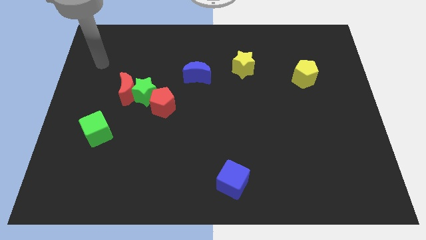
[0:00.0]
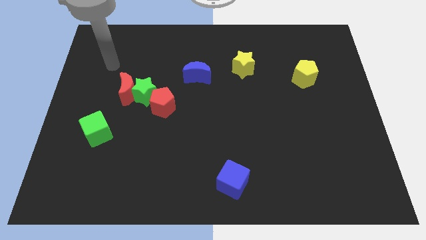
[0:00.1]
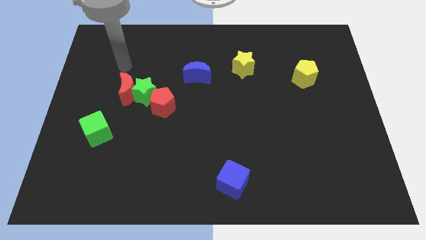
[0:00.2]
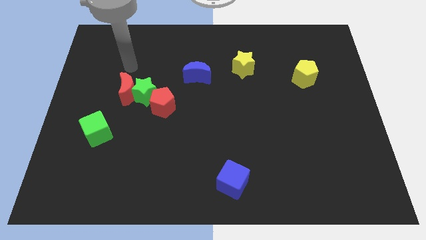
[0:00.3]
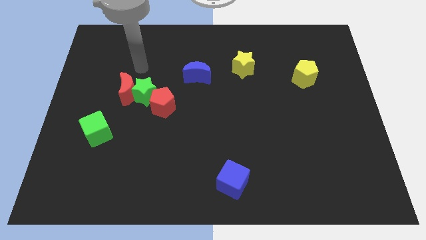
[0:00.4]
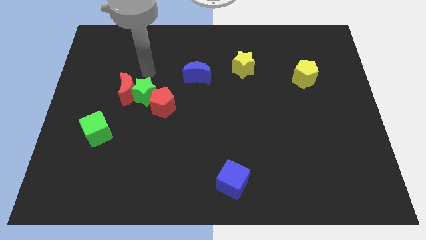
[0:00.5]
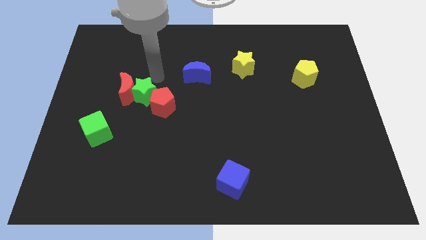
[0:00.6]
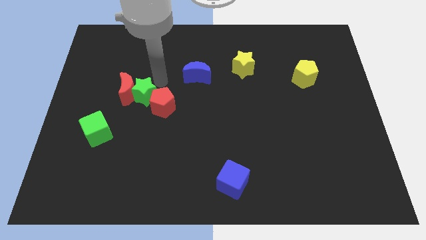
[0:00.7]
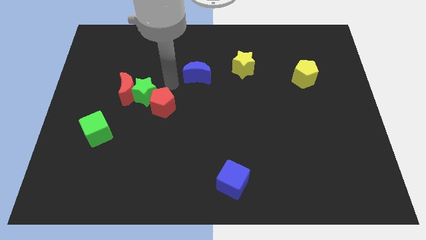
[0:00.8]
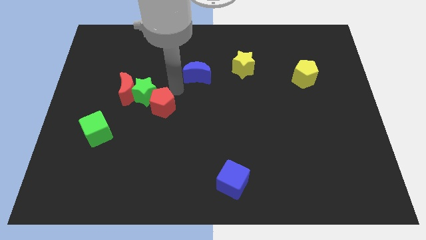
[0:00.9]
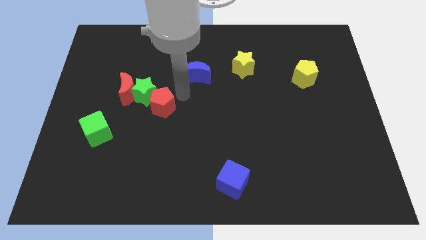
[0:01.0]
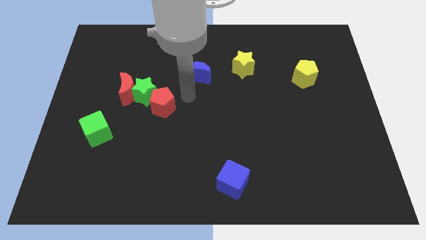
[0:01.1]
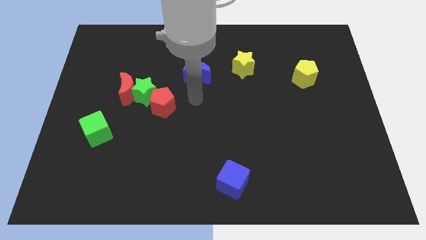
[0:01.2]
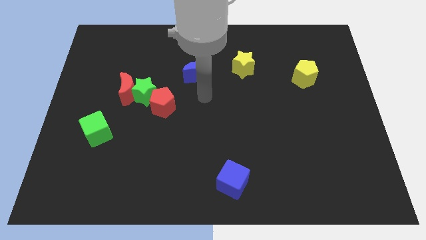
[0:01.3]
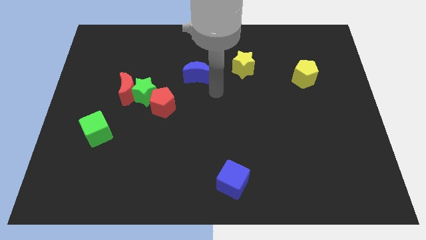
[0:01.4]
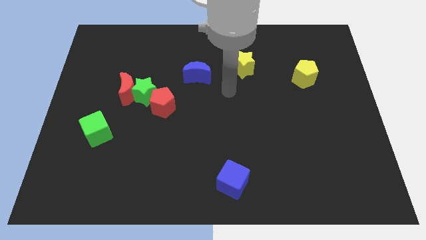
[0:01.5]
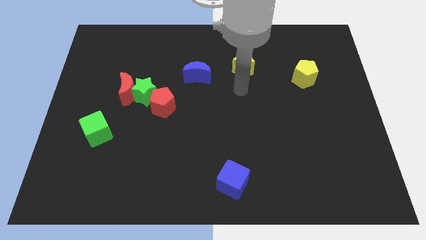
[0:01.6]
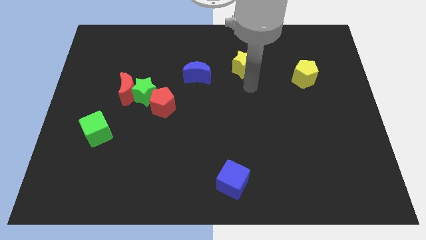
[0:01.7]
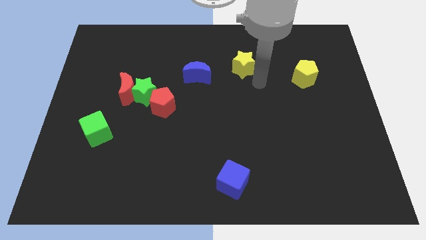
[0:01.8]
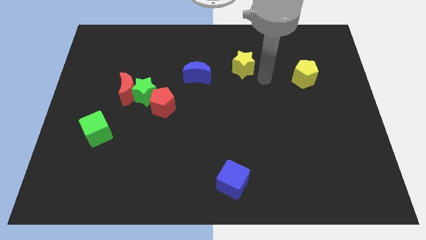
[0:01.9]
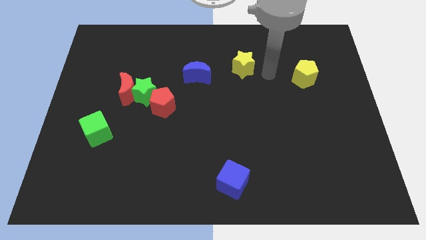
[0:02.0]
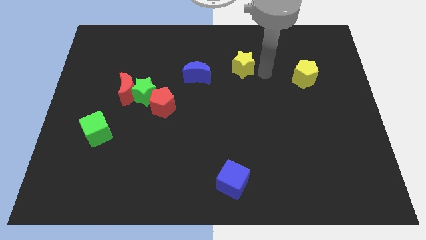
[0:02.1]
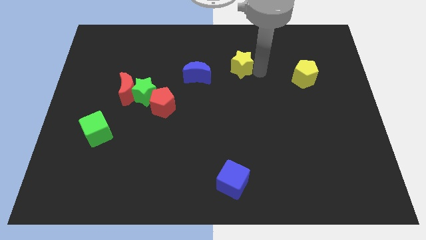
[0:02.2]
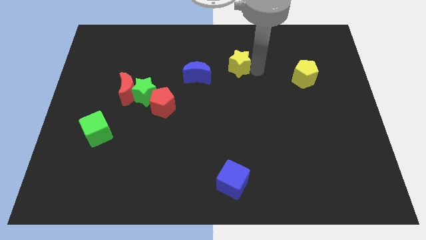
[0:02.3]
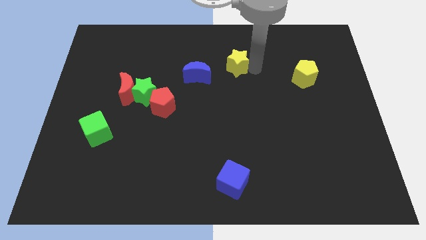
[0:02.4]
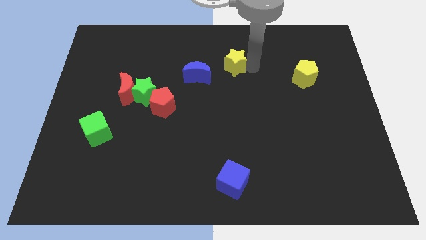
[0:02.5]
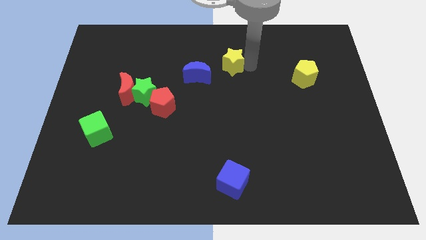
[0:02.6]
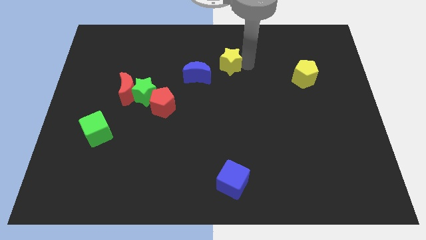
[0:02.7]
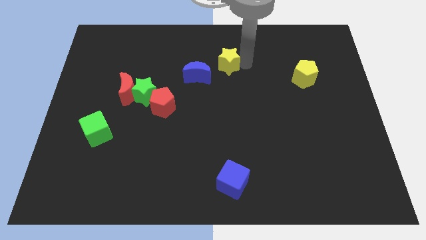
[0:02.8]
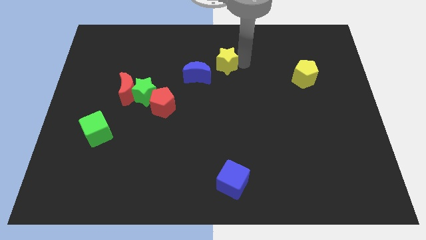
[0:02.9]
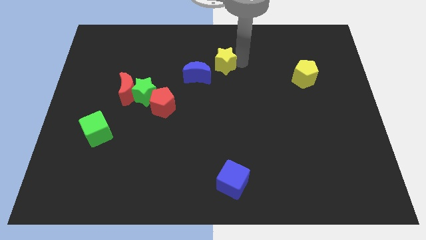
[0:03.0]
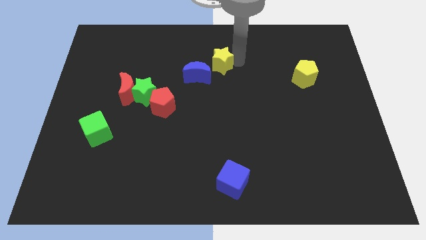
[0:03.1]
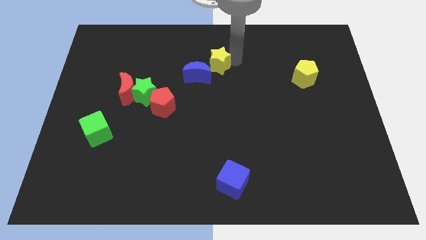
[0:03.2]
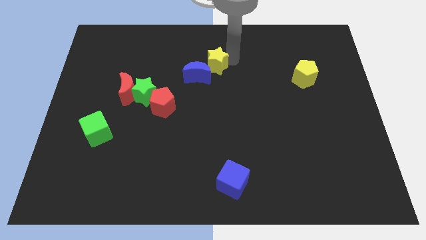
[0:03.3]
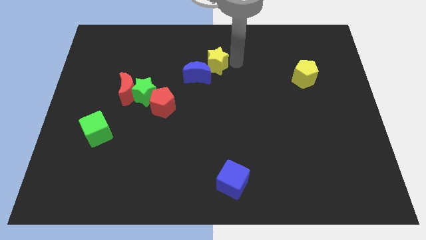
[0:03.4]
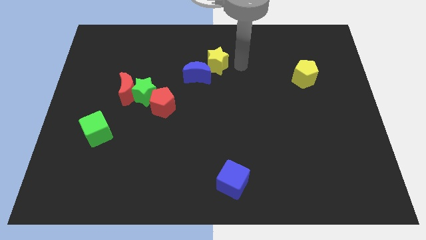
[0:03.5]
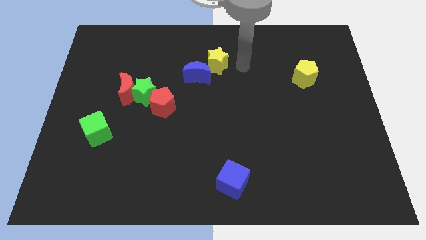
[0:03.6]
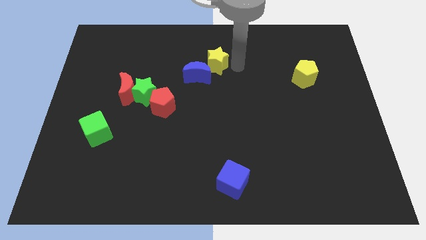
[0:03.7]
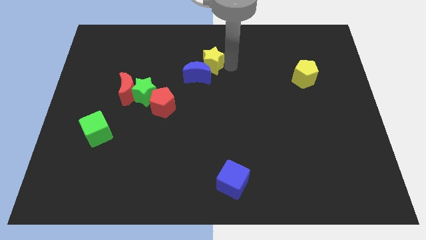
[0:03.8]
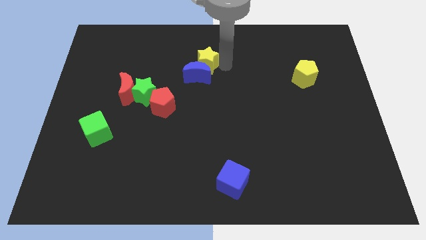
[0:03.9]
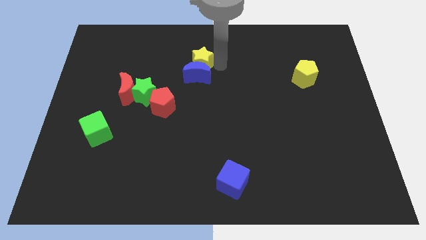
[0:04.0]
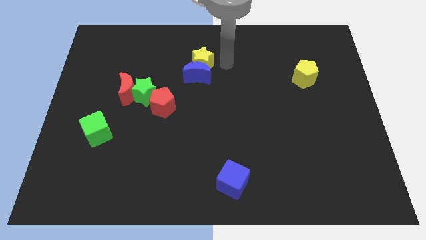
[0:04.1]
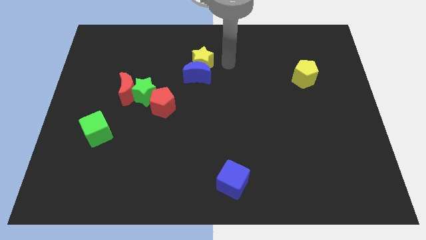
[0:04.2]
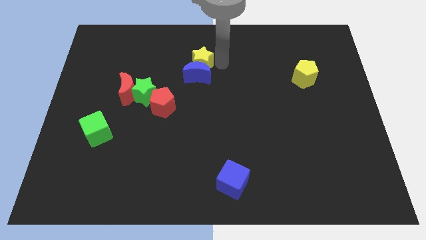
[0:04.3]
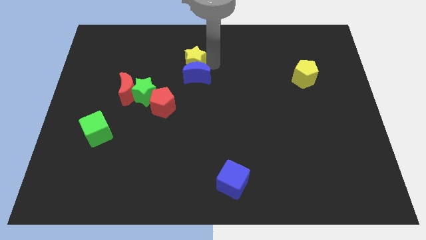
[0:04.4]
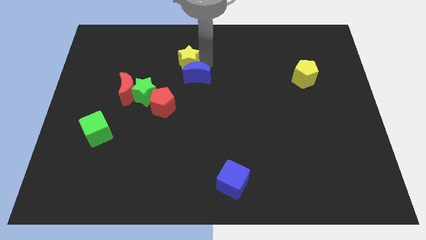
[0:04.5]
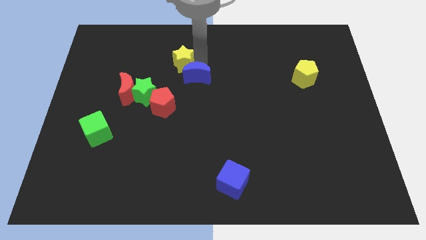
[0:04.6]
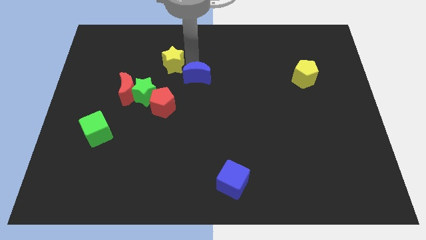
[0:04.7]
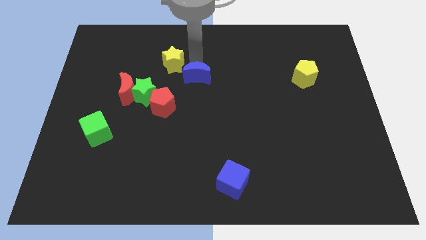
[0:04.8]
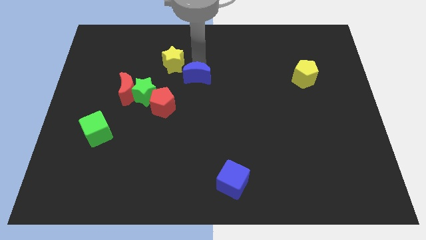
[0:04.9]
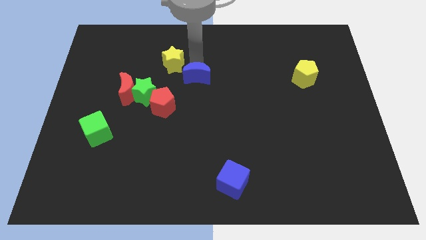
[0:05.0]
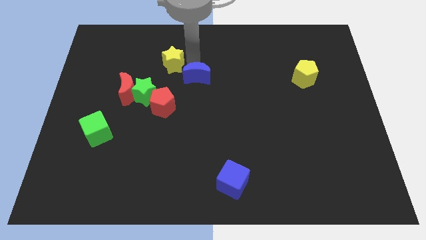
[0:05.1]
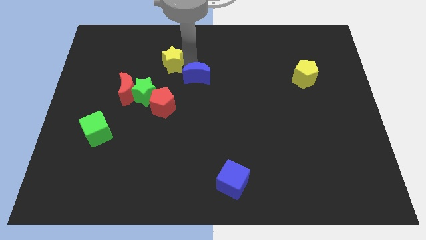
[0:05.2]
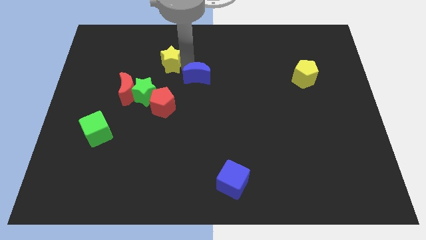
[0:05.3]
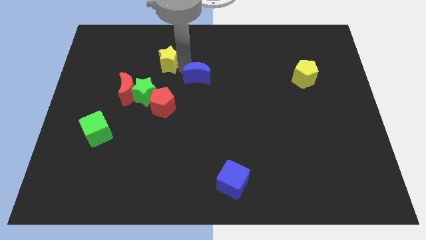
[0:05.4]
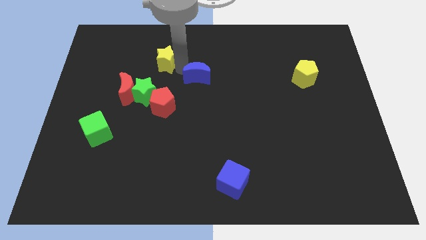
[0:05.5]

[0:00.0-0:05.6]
move the yellow star left

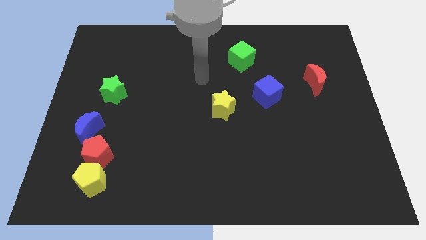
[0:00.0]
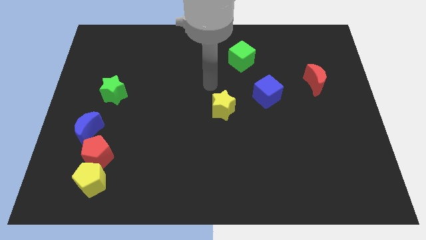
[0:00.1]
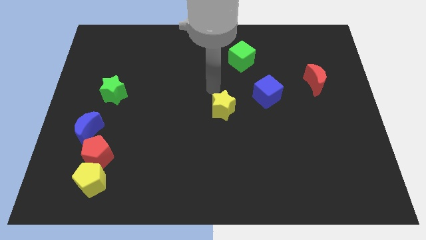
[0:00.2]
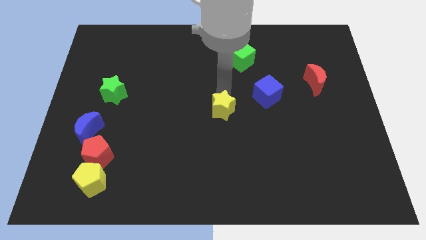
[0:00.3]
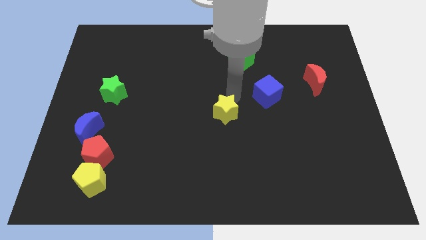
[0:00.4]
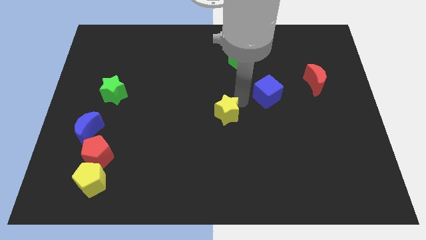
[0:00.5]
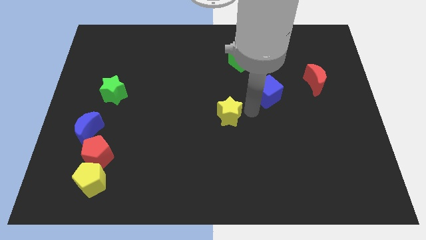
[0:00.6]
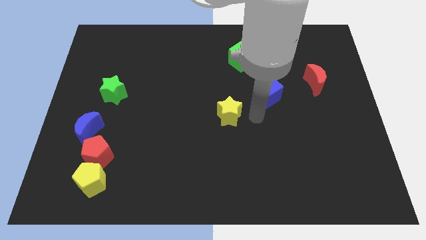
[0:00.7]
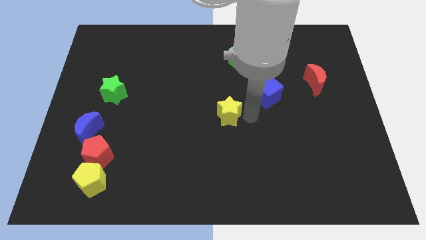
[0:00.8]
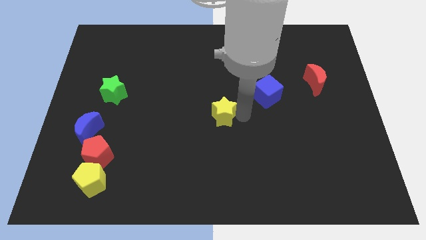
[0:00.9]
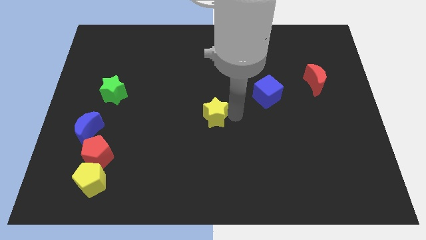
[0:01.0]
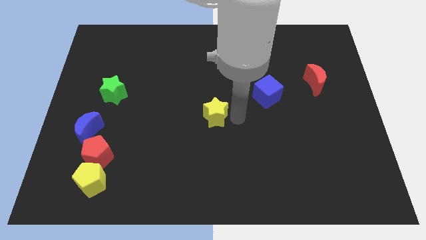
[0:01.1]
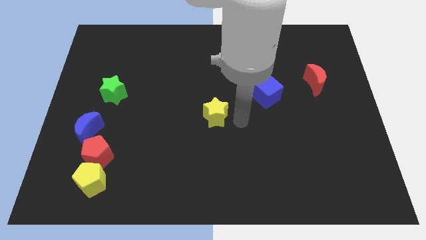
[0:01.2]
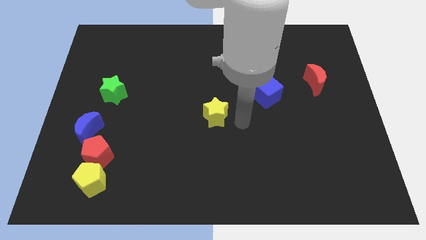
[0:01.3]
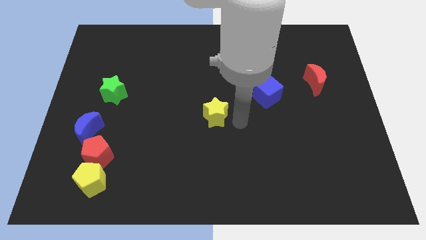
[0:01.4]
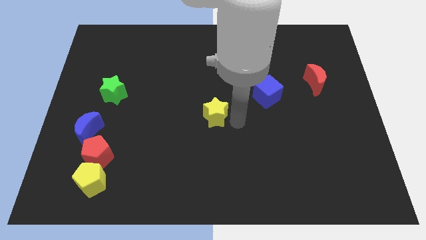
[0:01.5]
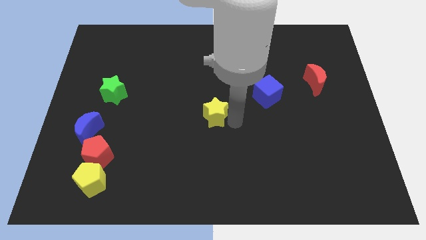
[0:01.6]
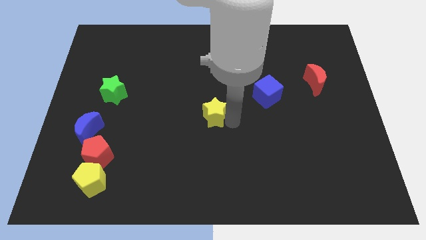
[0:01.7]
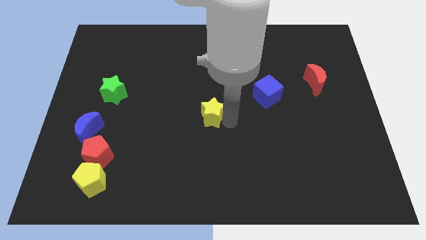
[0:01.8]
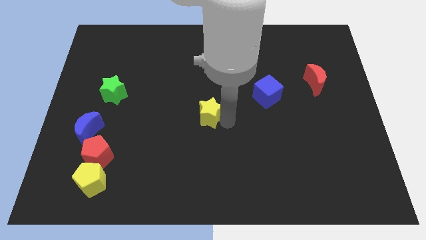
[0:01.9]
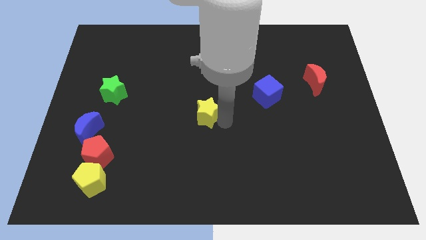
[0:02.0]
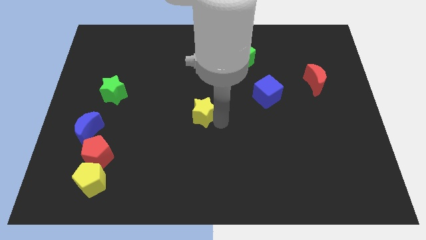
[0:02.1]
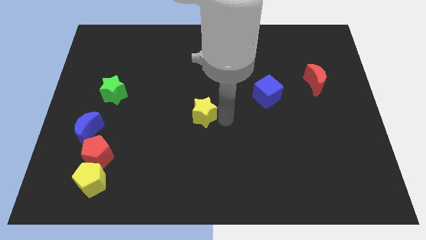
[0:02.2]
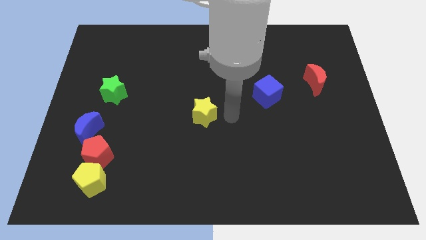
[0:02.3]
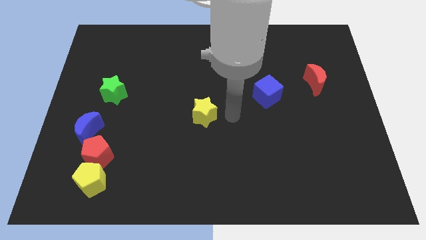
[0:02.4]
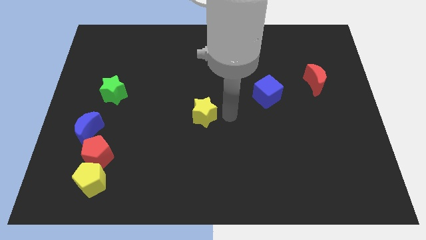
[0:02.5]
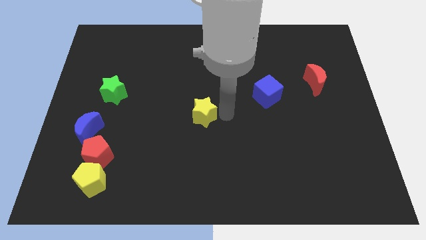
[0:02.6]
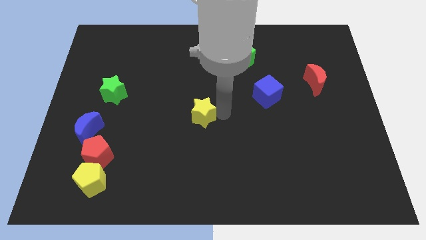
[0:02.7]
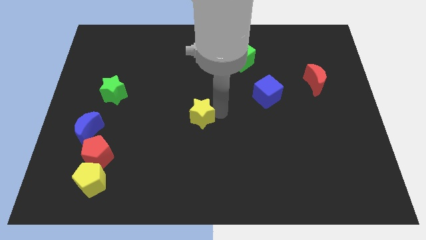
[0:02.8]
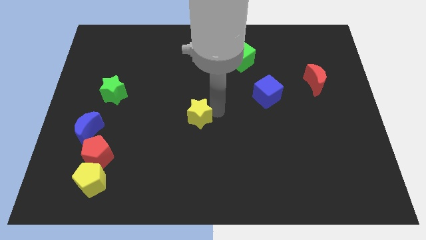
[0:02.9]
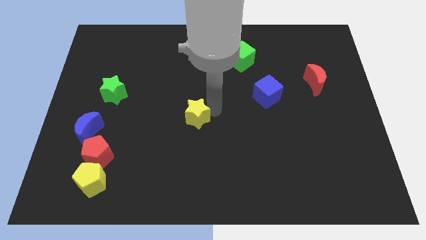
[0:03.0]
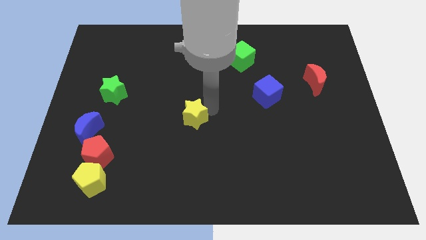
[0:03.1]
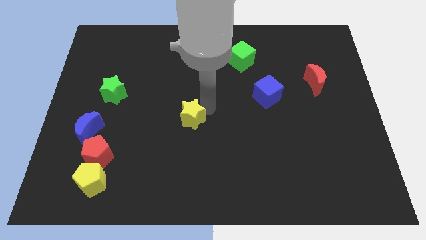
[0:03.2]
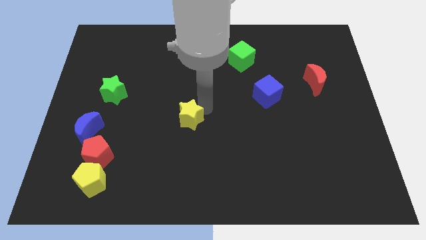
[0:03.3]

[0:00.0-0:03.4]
move the yellow star to the left a little bit
